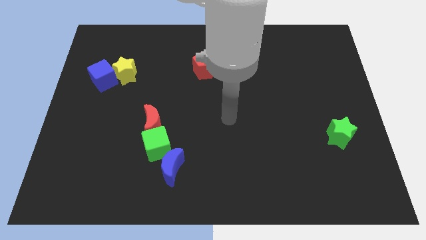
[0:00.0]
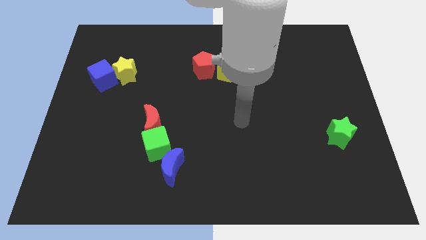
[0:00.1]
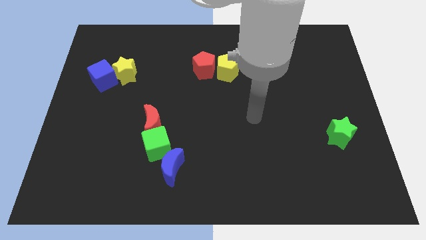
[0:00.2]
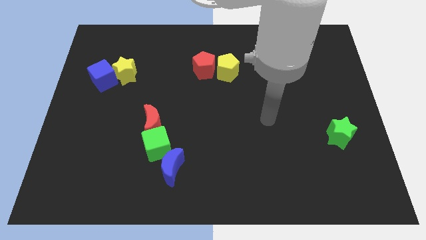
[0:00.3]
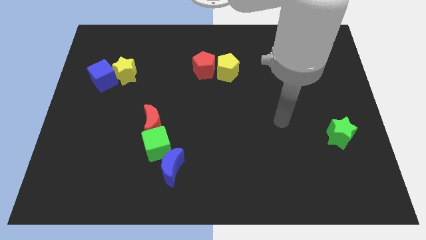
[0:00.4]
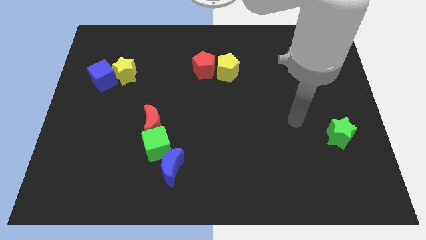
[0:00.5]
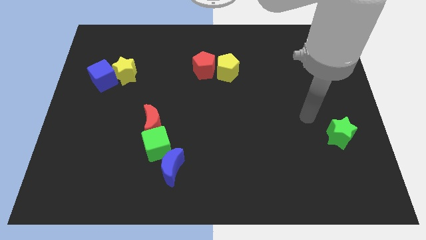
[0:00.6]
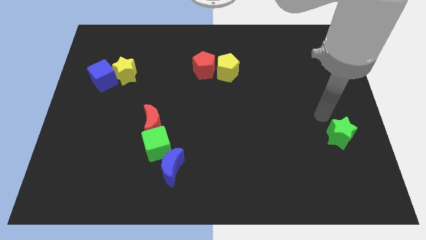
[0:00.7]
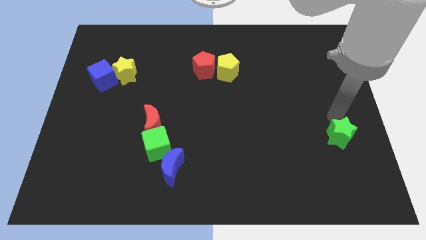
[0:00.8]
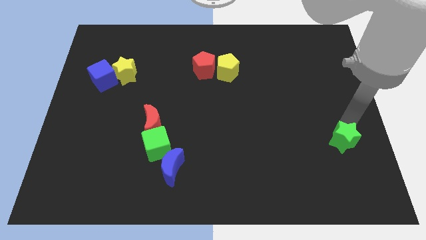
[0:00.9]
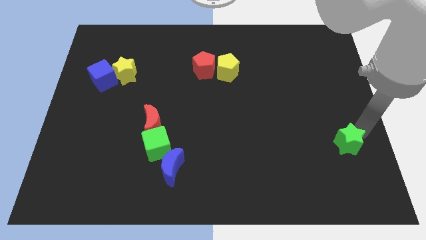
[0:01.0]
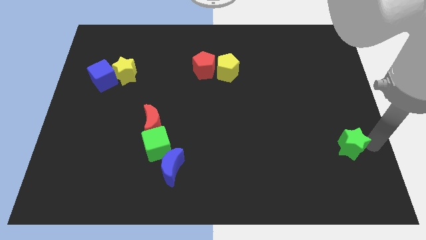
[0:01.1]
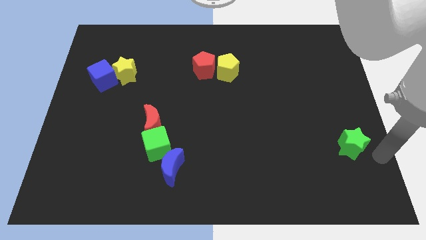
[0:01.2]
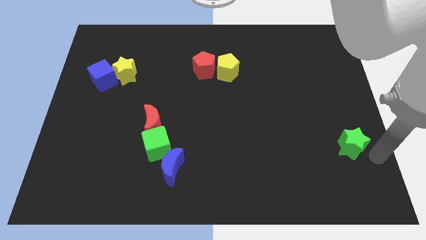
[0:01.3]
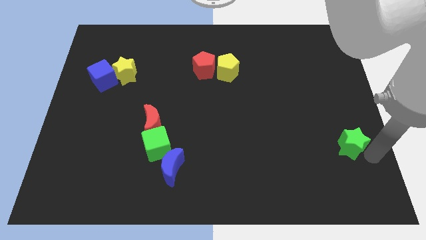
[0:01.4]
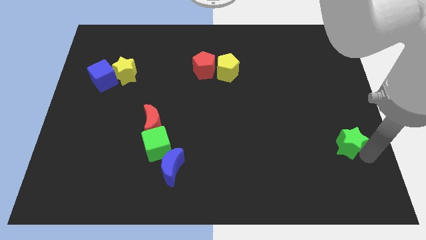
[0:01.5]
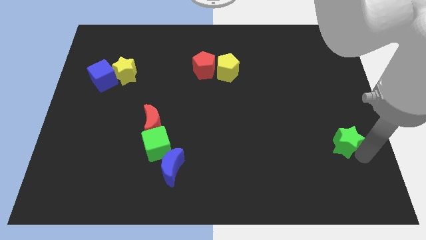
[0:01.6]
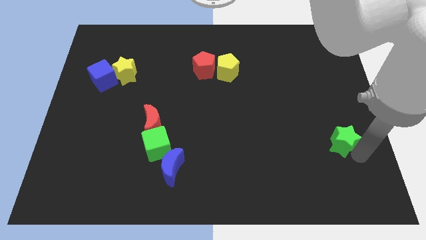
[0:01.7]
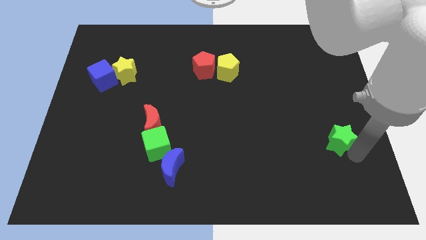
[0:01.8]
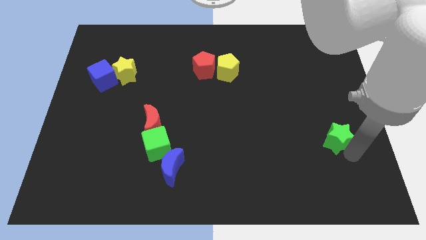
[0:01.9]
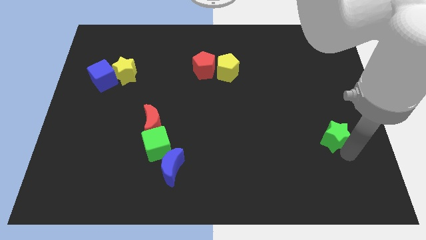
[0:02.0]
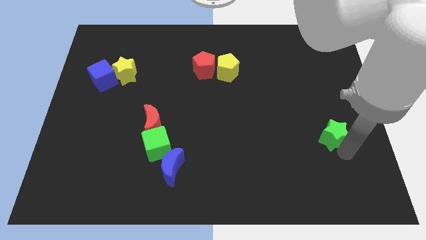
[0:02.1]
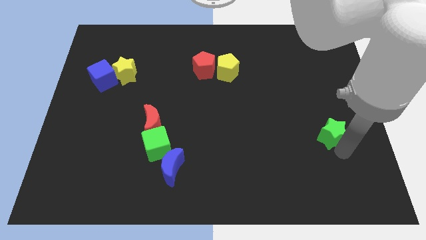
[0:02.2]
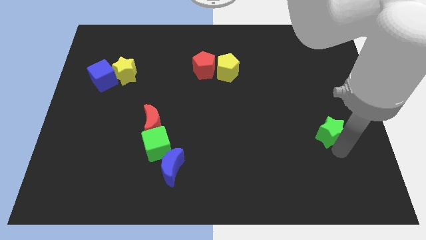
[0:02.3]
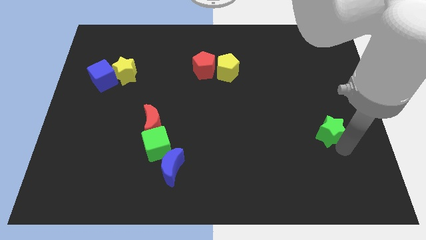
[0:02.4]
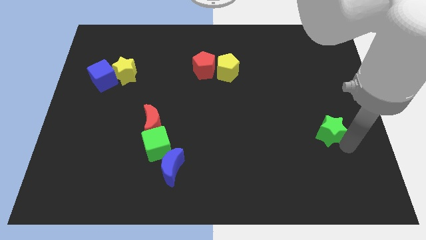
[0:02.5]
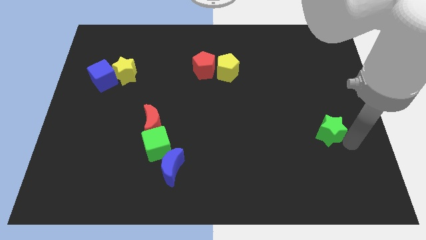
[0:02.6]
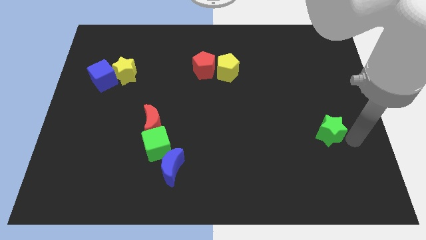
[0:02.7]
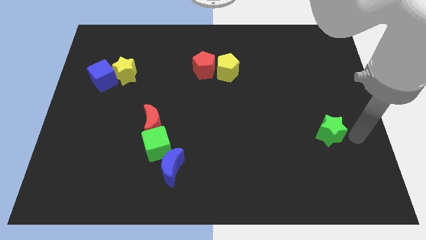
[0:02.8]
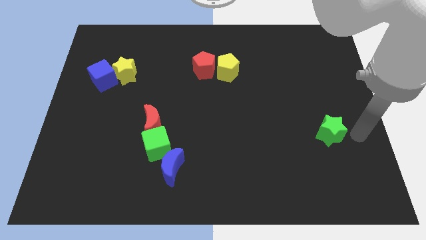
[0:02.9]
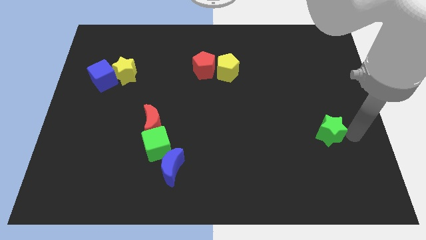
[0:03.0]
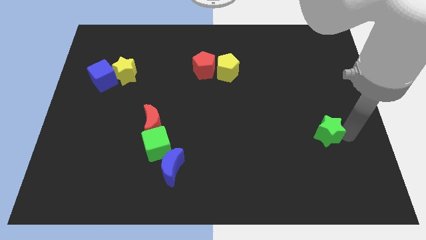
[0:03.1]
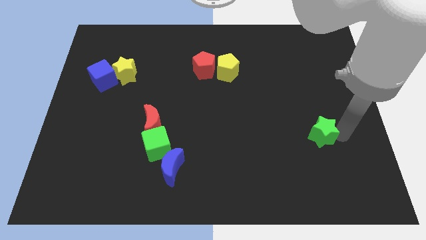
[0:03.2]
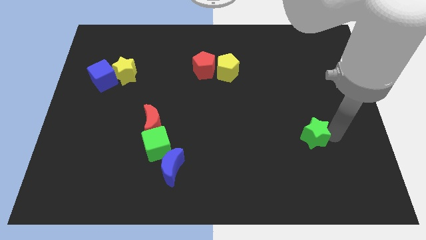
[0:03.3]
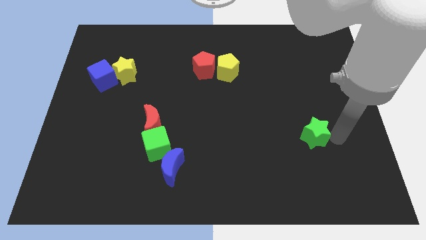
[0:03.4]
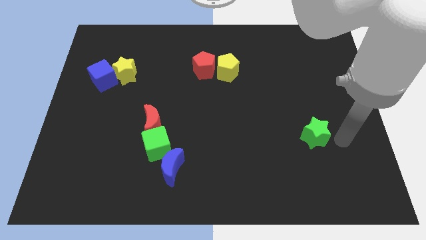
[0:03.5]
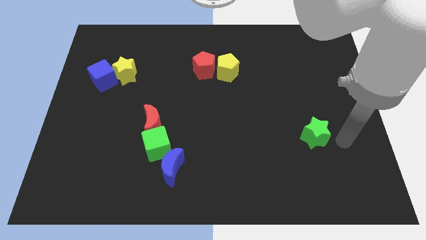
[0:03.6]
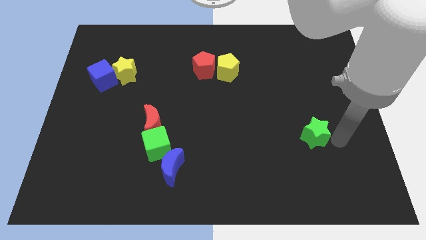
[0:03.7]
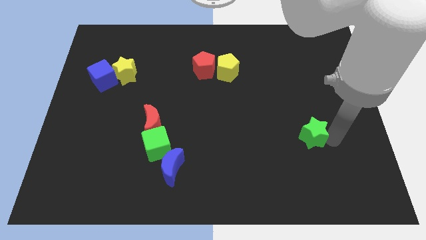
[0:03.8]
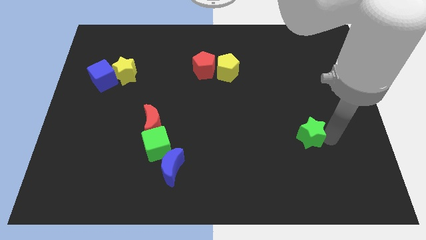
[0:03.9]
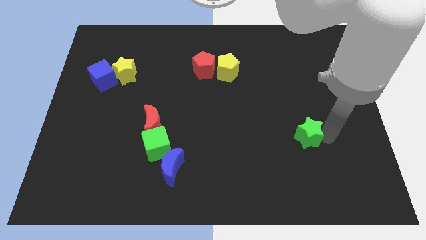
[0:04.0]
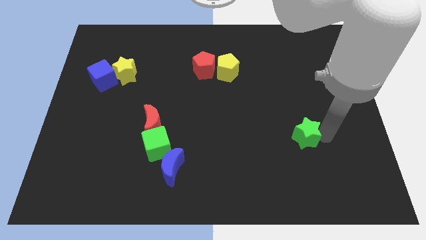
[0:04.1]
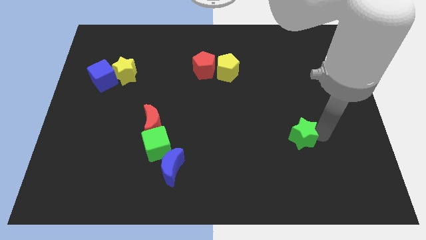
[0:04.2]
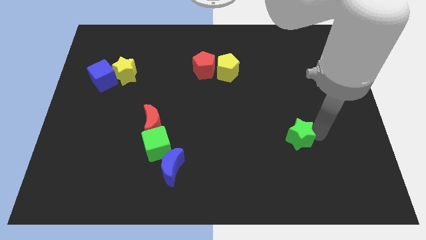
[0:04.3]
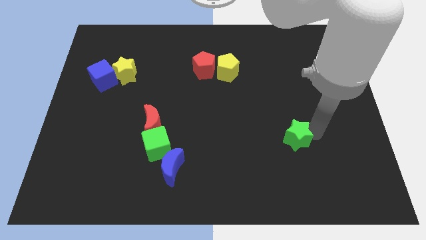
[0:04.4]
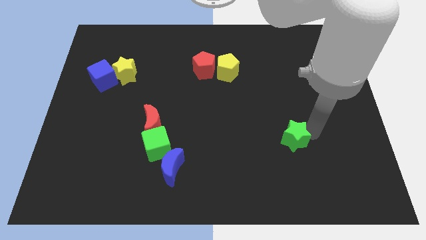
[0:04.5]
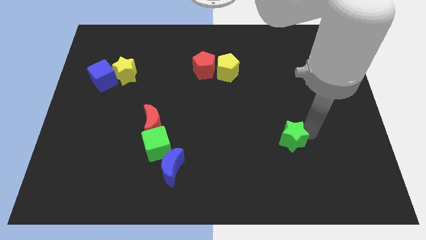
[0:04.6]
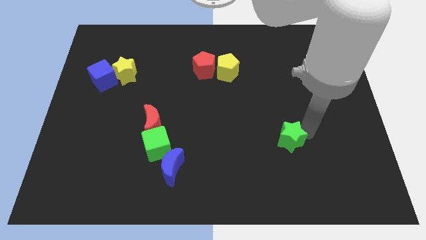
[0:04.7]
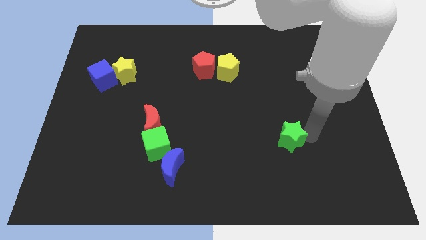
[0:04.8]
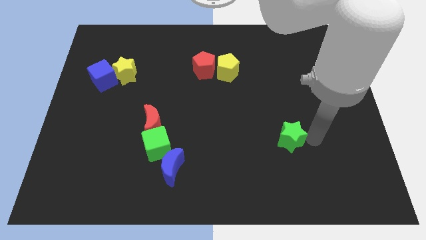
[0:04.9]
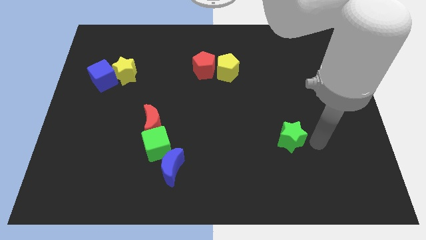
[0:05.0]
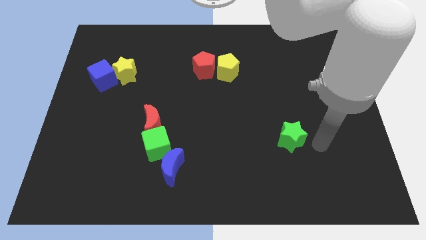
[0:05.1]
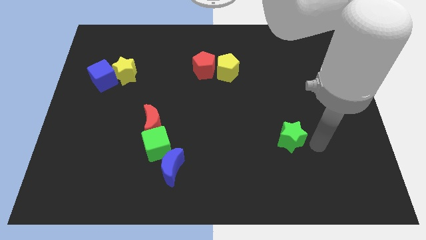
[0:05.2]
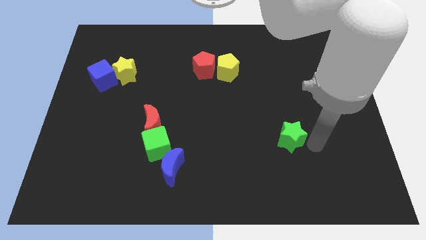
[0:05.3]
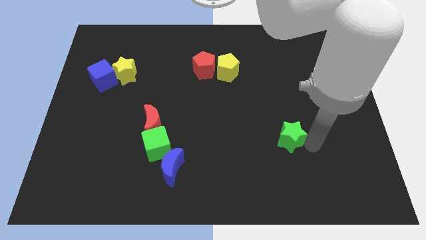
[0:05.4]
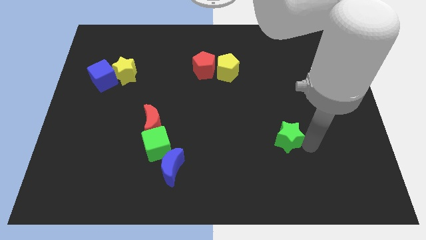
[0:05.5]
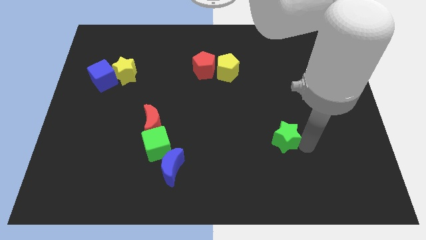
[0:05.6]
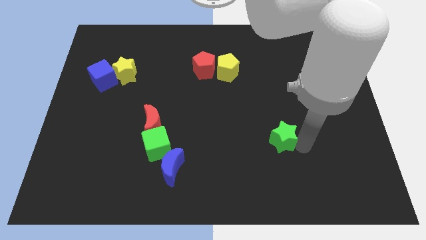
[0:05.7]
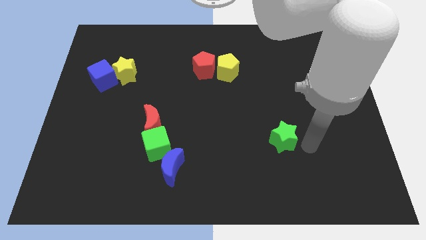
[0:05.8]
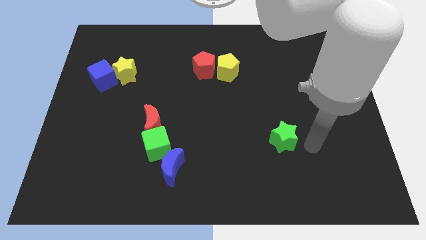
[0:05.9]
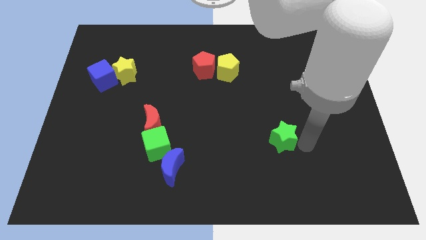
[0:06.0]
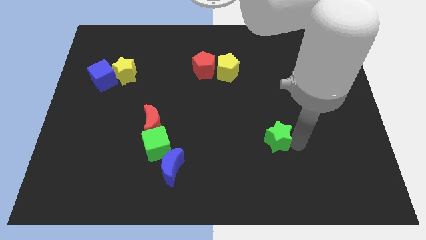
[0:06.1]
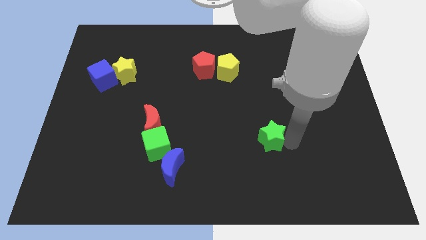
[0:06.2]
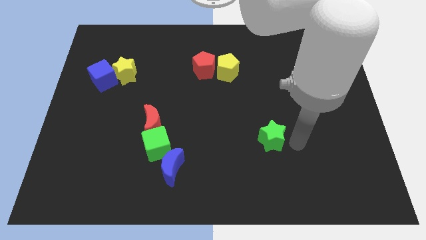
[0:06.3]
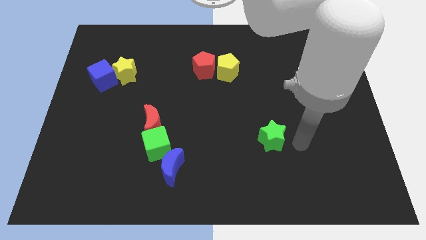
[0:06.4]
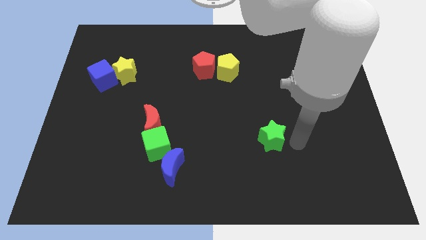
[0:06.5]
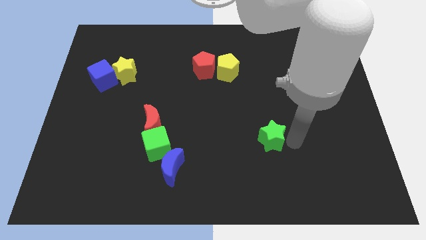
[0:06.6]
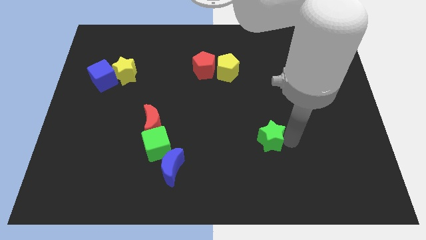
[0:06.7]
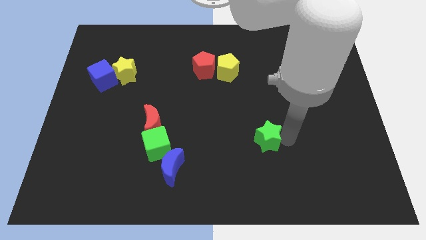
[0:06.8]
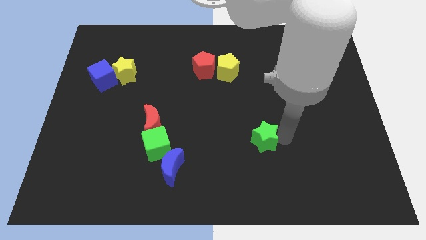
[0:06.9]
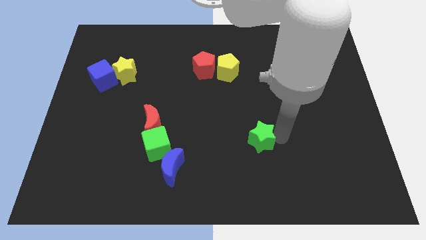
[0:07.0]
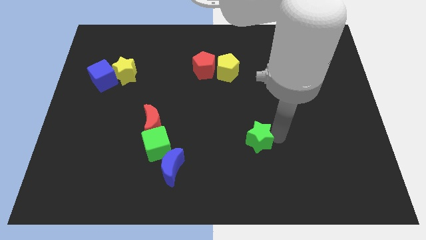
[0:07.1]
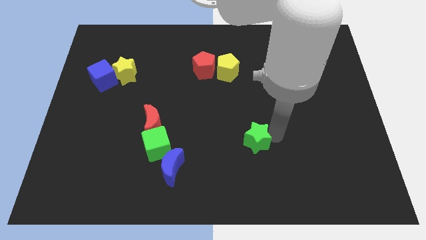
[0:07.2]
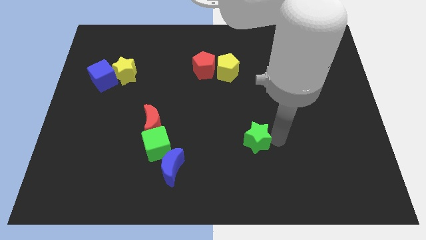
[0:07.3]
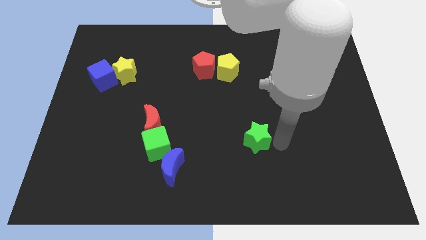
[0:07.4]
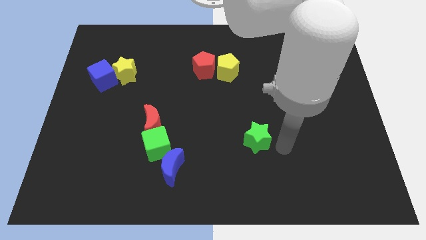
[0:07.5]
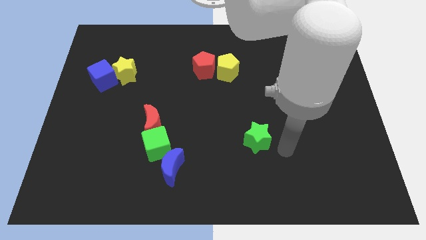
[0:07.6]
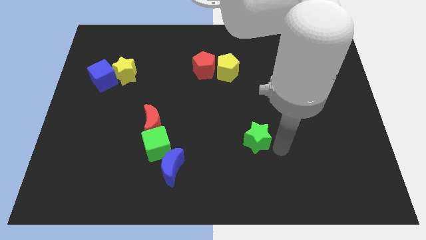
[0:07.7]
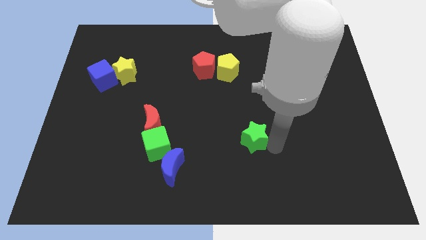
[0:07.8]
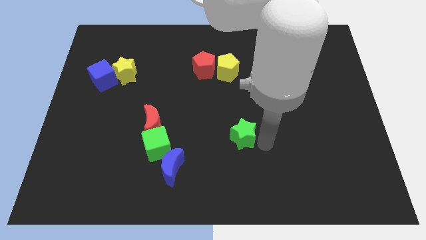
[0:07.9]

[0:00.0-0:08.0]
slide the green star to the left

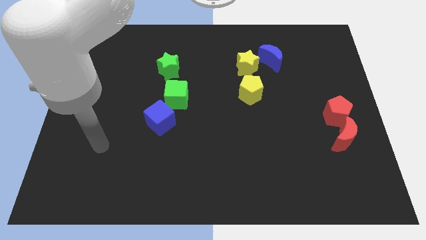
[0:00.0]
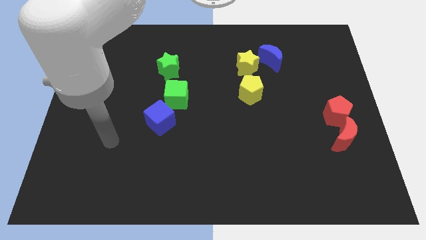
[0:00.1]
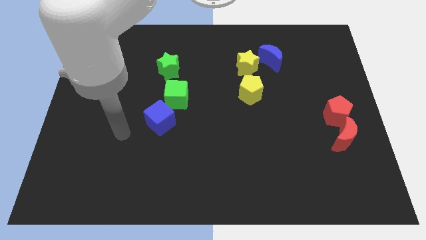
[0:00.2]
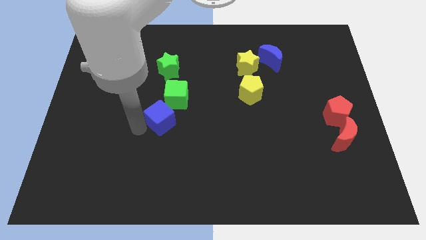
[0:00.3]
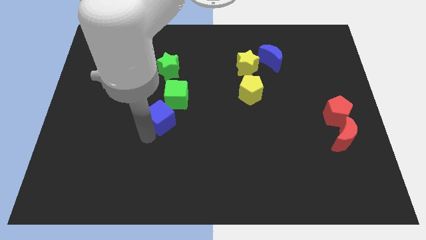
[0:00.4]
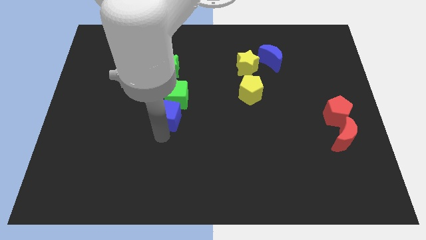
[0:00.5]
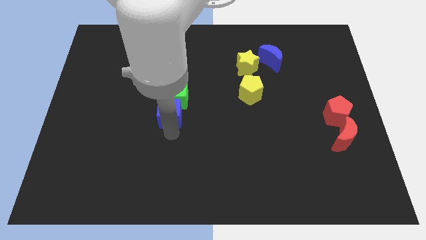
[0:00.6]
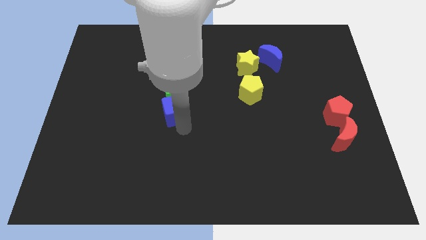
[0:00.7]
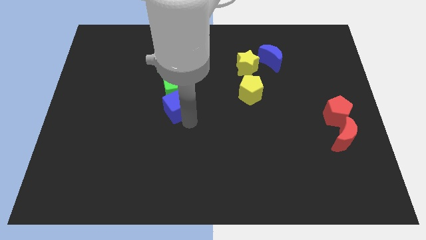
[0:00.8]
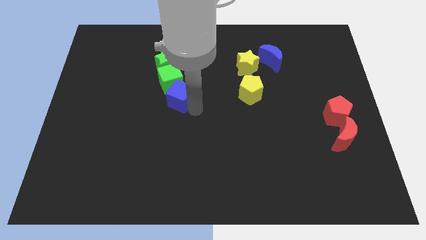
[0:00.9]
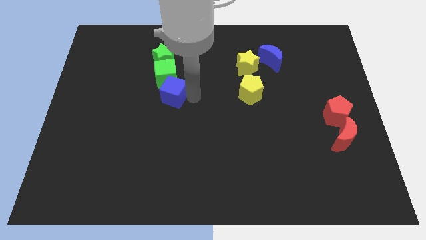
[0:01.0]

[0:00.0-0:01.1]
slightly move the green cube diagonally up and left
